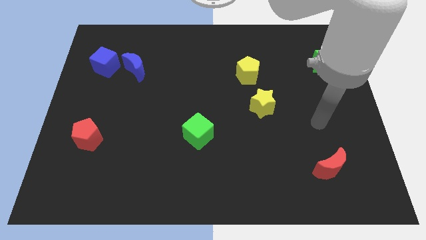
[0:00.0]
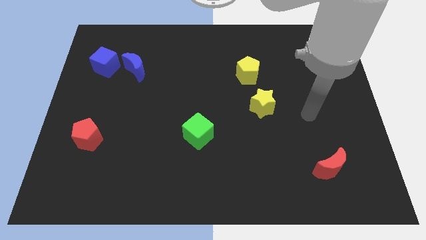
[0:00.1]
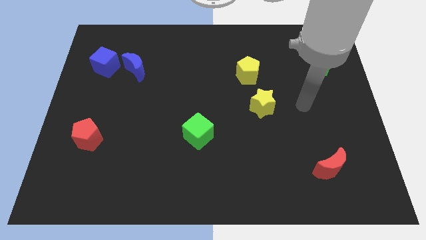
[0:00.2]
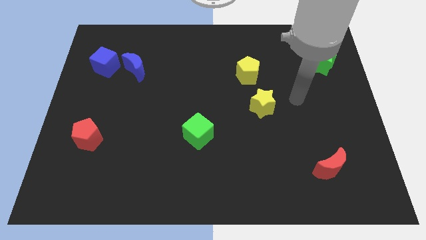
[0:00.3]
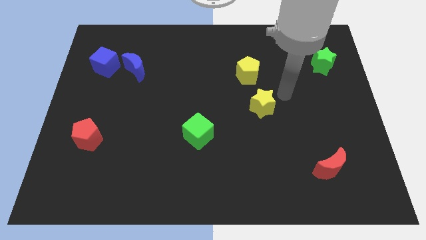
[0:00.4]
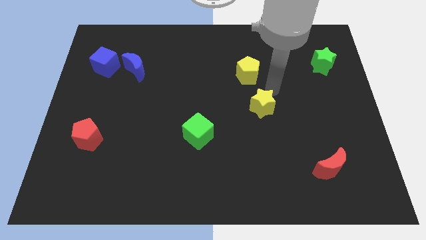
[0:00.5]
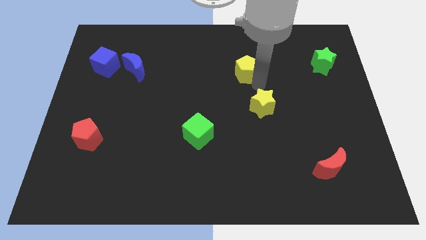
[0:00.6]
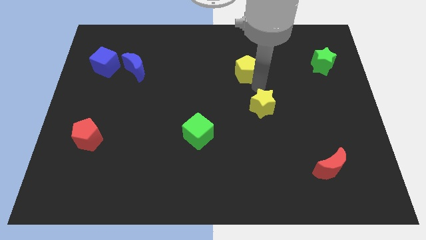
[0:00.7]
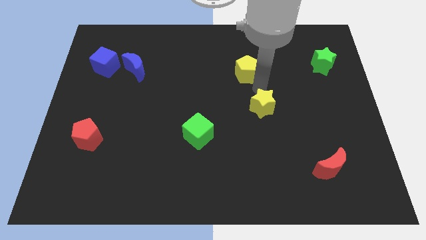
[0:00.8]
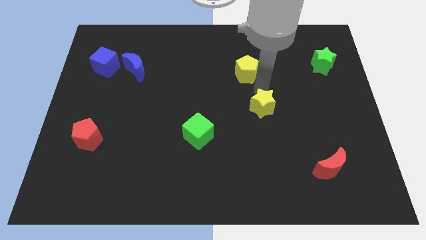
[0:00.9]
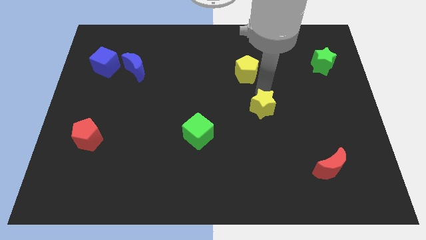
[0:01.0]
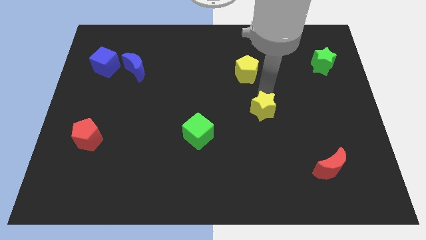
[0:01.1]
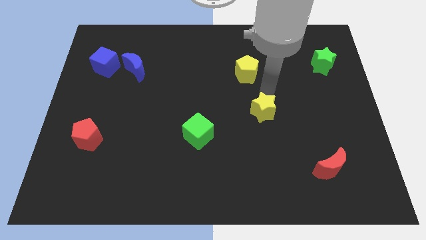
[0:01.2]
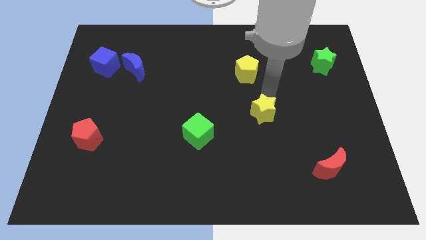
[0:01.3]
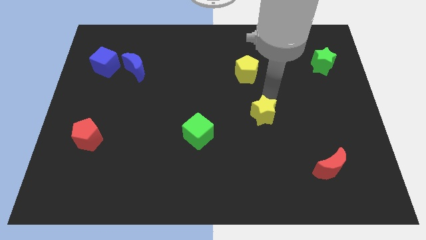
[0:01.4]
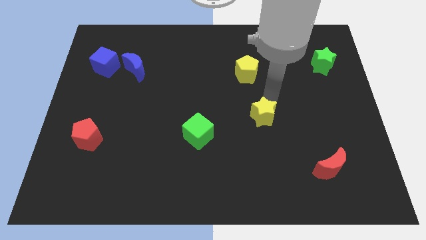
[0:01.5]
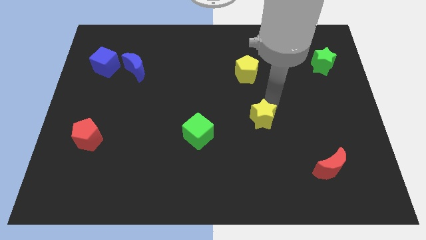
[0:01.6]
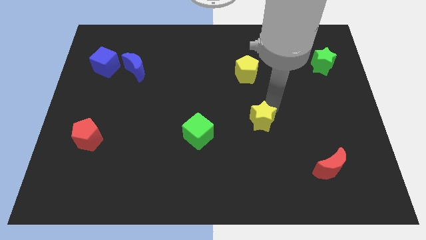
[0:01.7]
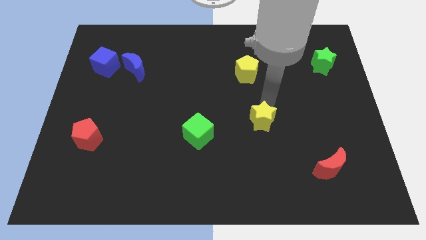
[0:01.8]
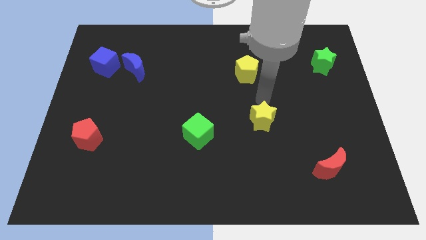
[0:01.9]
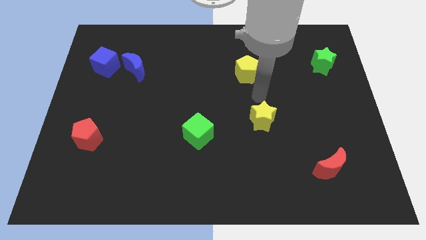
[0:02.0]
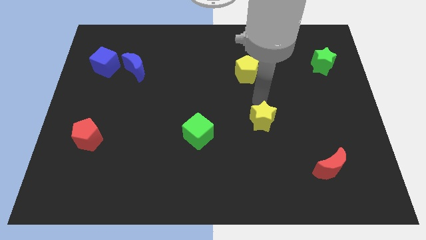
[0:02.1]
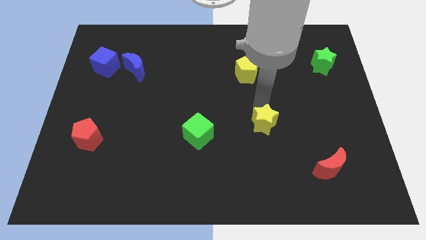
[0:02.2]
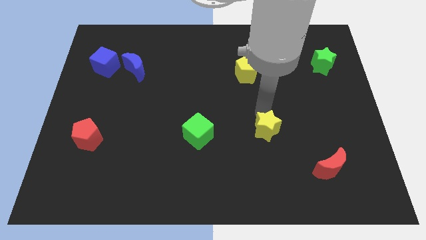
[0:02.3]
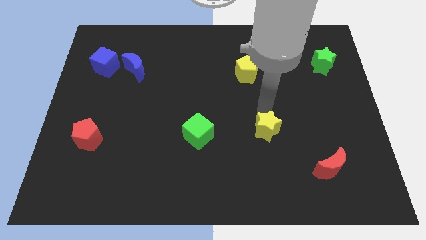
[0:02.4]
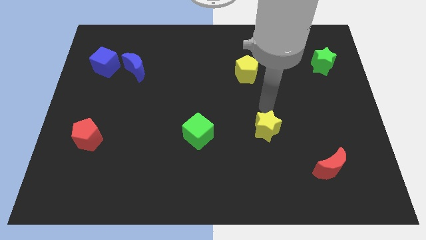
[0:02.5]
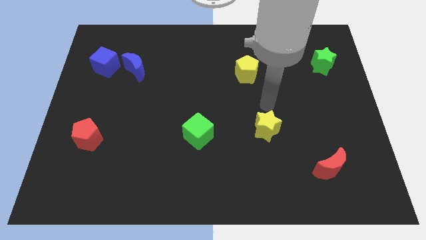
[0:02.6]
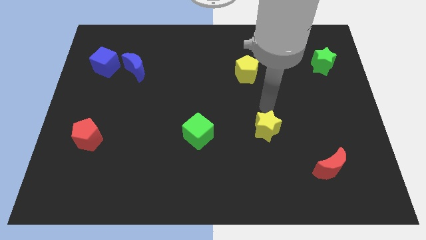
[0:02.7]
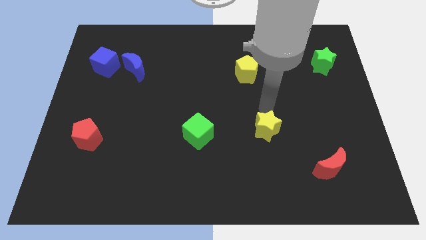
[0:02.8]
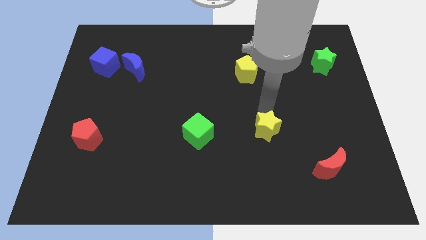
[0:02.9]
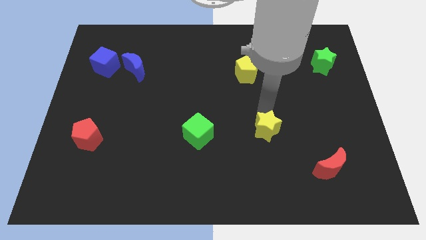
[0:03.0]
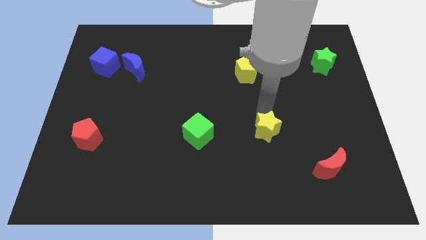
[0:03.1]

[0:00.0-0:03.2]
slide the yellow star down a little bit

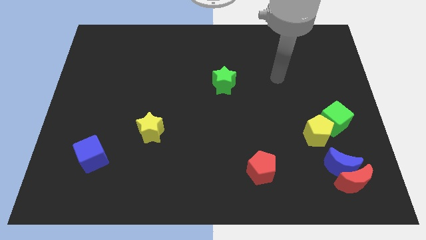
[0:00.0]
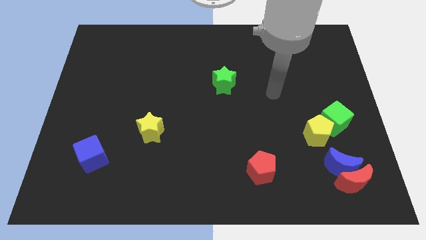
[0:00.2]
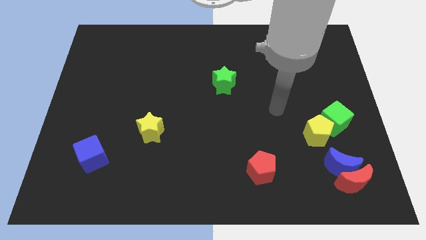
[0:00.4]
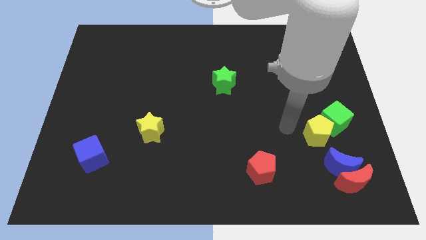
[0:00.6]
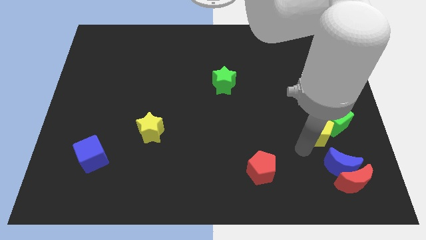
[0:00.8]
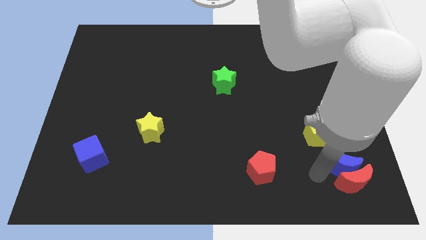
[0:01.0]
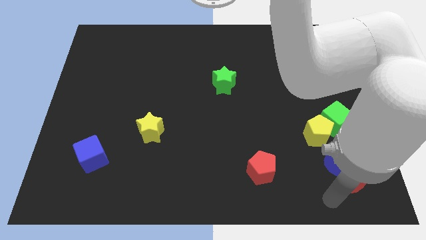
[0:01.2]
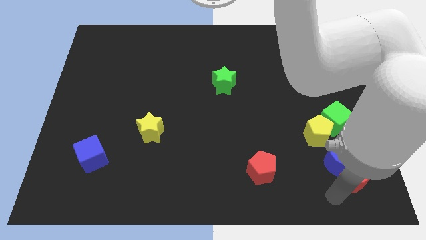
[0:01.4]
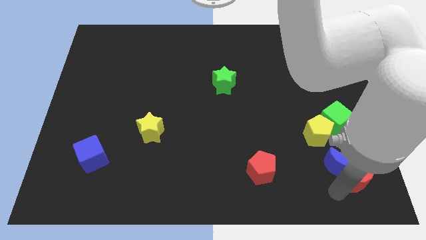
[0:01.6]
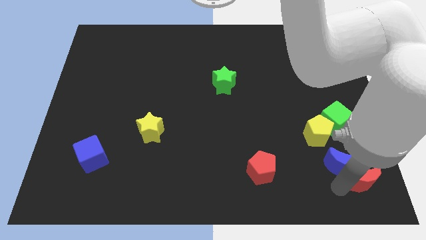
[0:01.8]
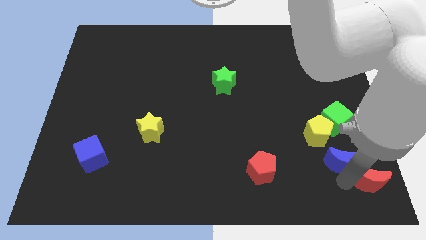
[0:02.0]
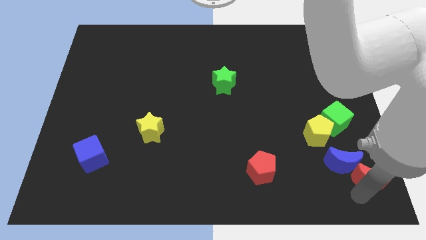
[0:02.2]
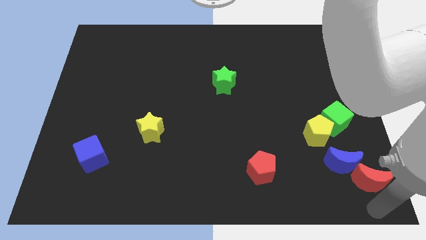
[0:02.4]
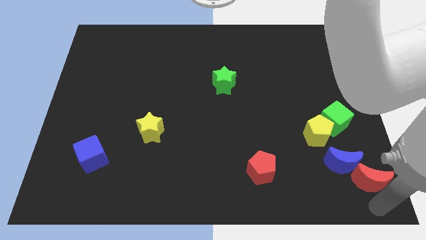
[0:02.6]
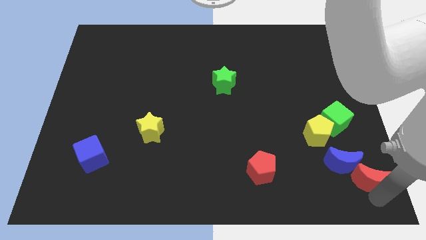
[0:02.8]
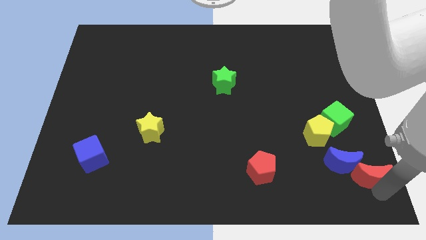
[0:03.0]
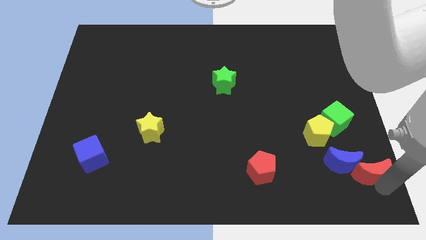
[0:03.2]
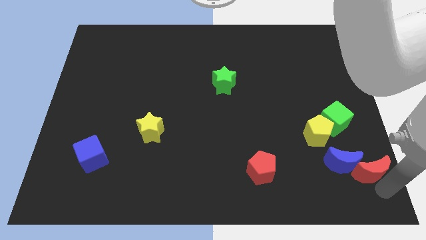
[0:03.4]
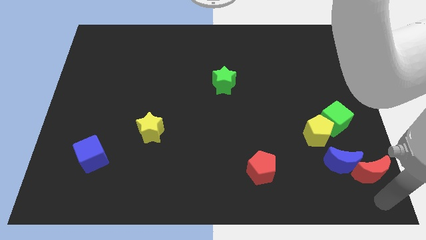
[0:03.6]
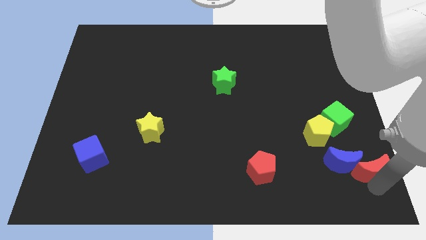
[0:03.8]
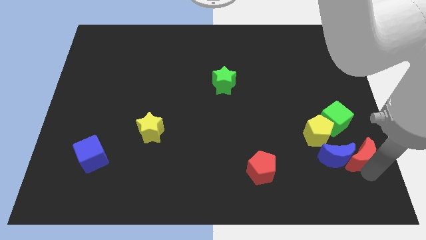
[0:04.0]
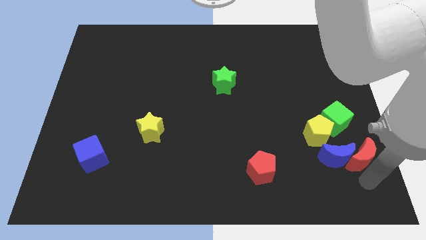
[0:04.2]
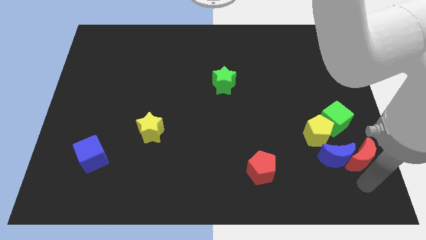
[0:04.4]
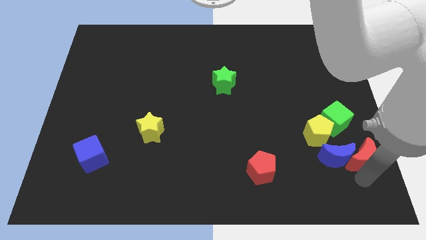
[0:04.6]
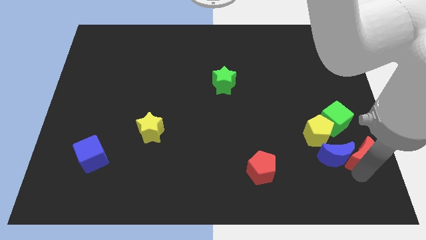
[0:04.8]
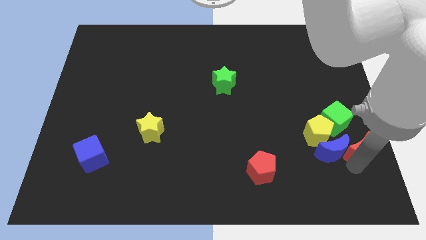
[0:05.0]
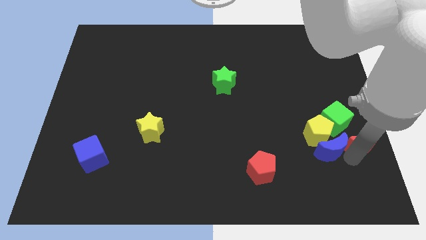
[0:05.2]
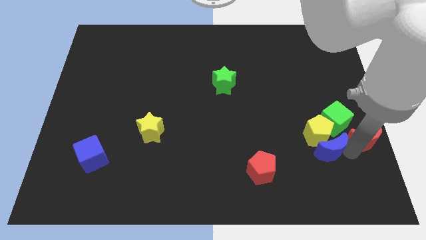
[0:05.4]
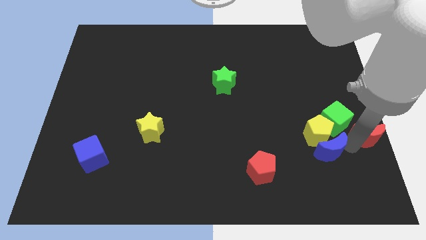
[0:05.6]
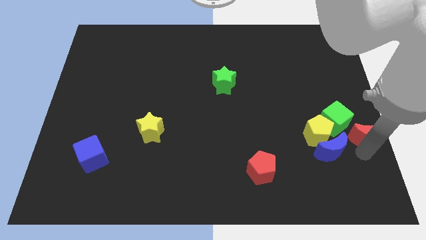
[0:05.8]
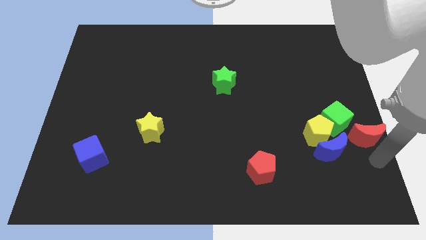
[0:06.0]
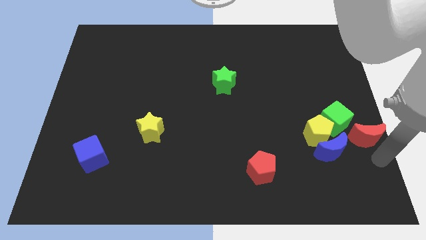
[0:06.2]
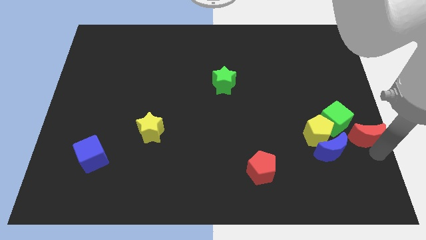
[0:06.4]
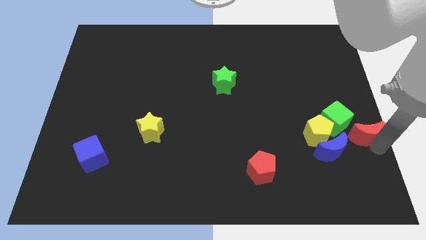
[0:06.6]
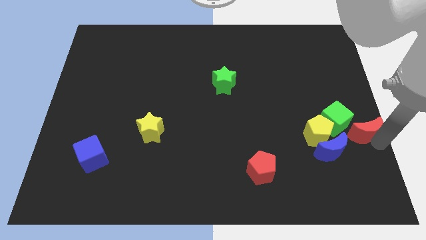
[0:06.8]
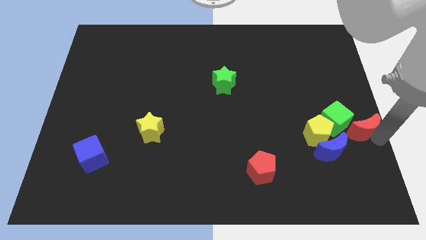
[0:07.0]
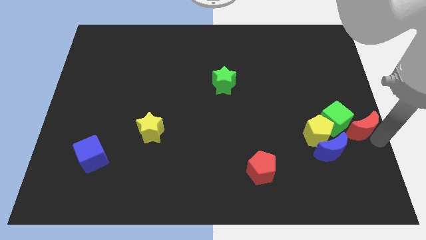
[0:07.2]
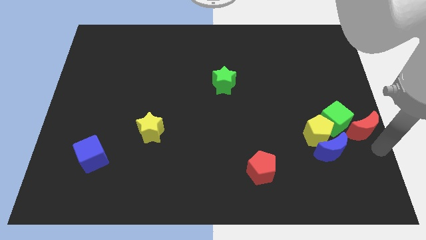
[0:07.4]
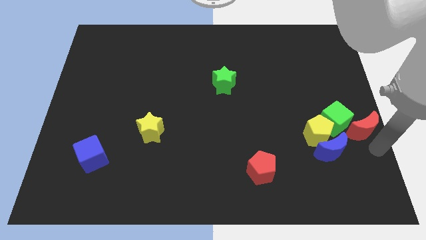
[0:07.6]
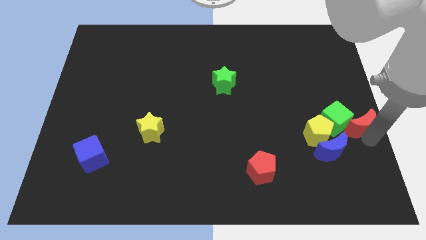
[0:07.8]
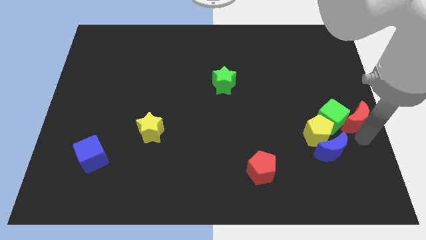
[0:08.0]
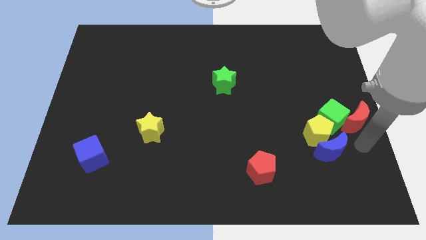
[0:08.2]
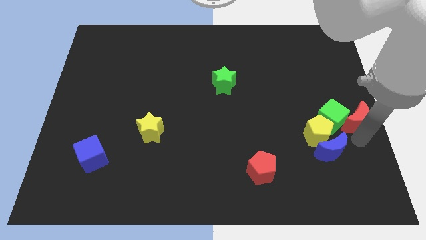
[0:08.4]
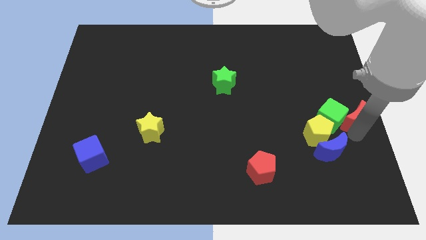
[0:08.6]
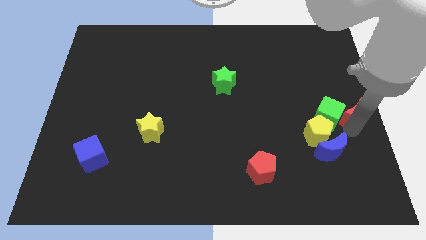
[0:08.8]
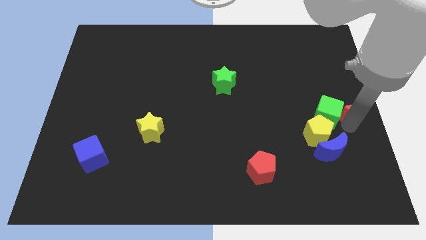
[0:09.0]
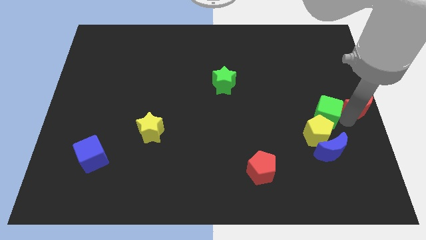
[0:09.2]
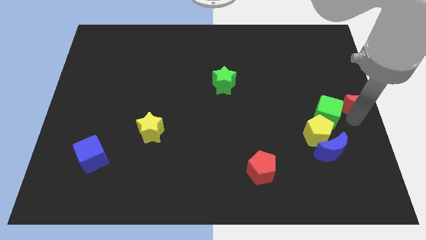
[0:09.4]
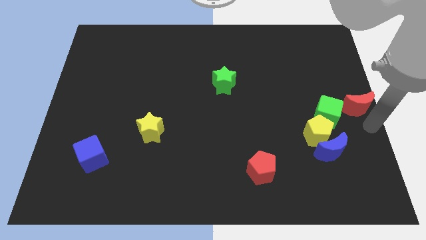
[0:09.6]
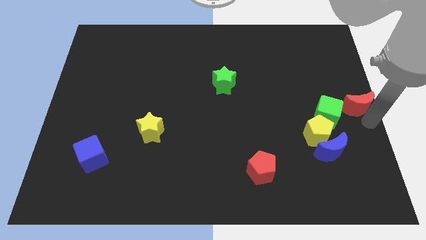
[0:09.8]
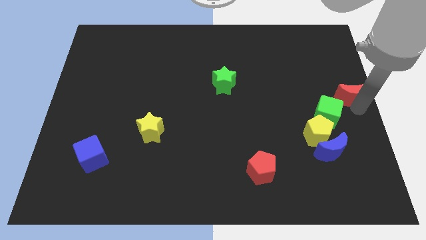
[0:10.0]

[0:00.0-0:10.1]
slide the red moon up

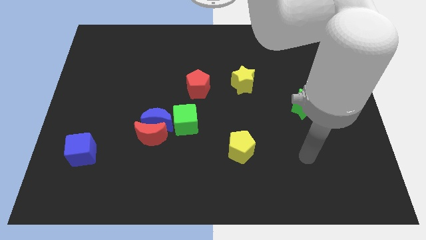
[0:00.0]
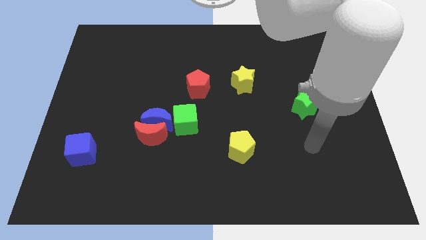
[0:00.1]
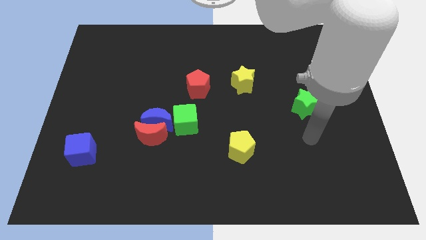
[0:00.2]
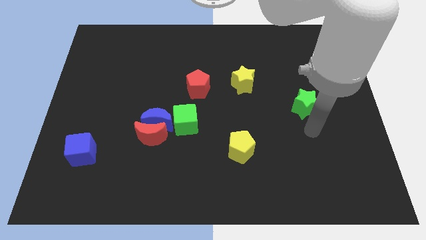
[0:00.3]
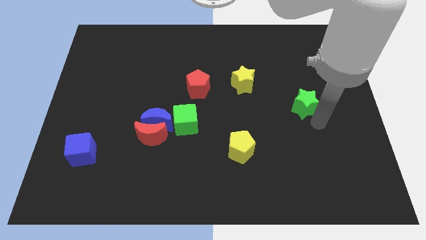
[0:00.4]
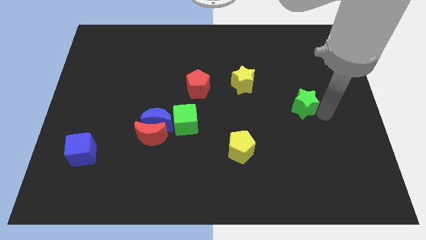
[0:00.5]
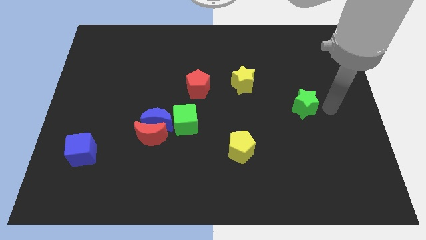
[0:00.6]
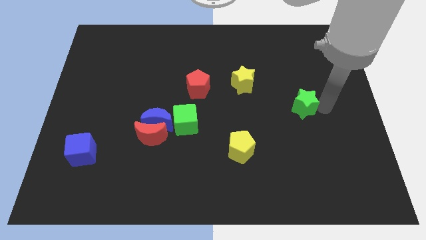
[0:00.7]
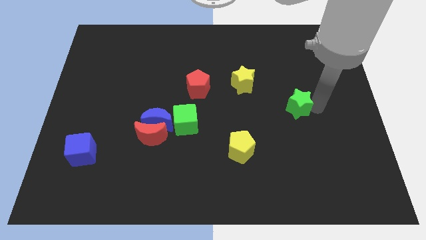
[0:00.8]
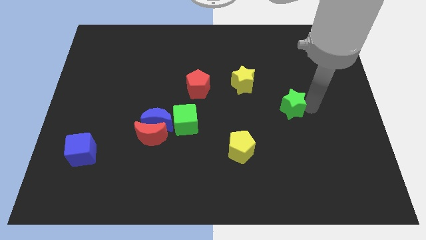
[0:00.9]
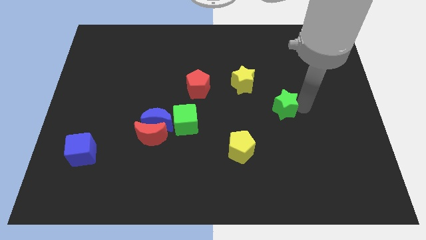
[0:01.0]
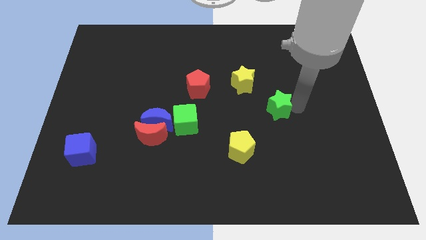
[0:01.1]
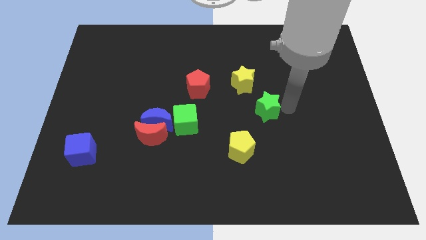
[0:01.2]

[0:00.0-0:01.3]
slightly push the green star to the left
